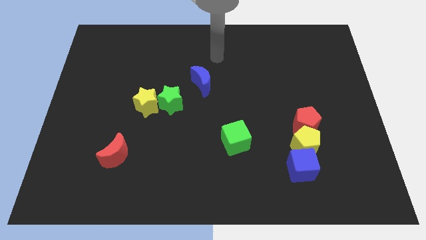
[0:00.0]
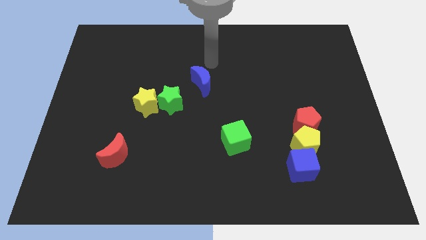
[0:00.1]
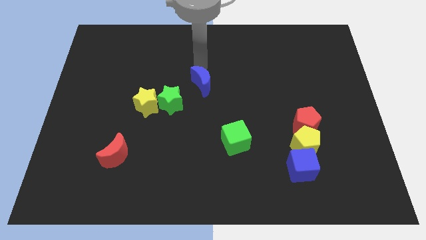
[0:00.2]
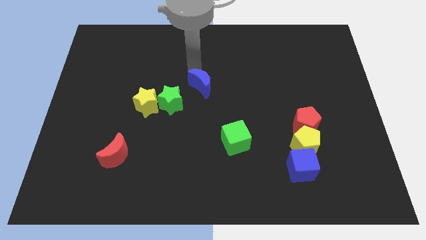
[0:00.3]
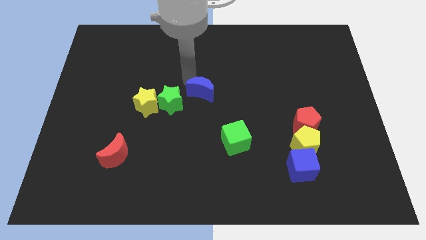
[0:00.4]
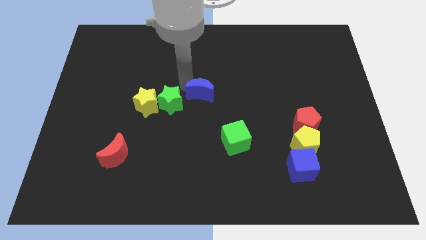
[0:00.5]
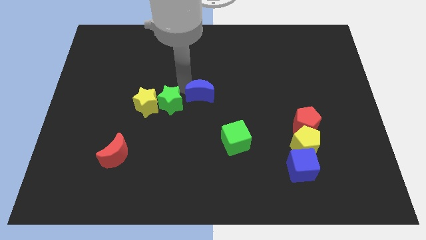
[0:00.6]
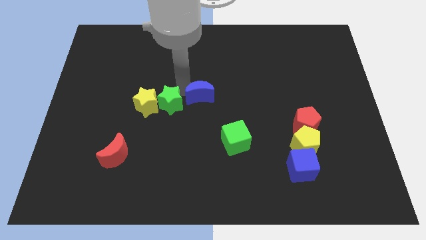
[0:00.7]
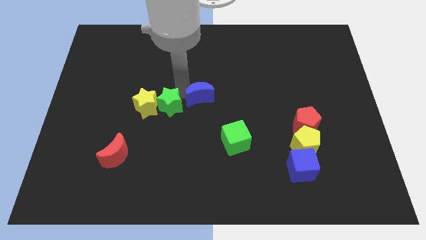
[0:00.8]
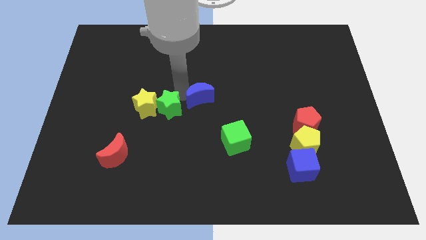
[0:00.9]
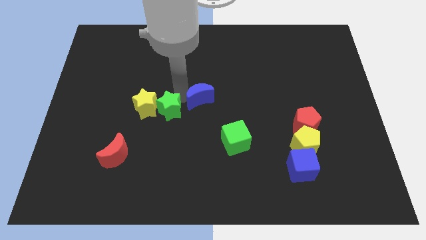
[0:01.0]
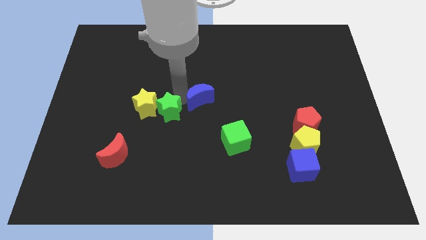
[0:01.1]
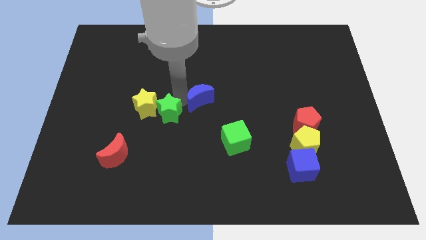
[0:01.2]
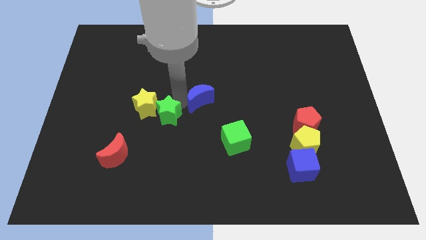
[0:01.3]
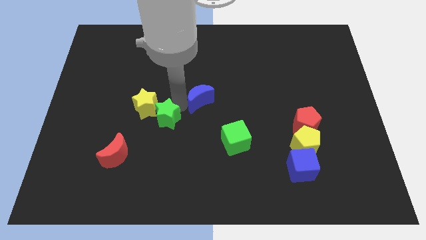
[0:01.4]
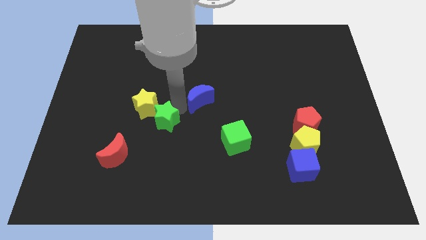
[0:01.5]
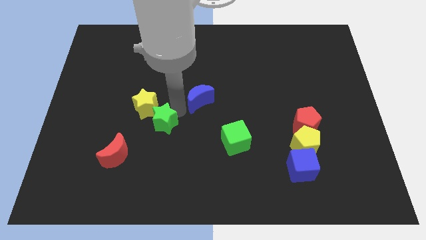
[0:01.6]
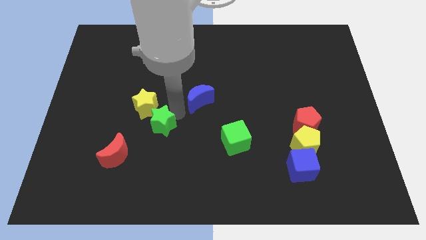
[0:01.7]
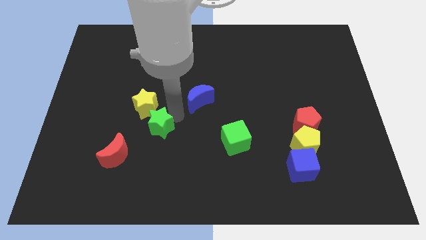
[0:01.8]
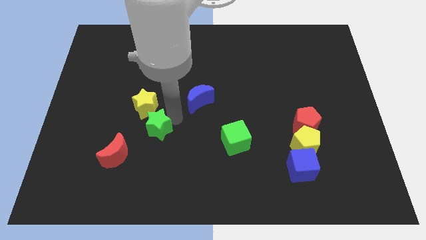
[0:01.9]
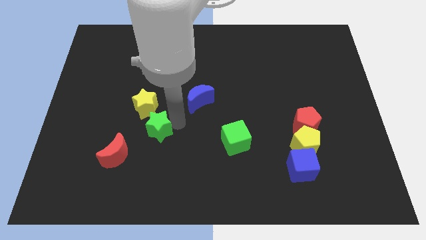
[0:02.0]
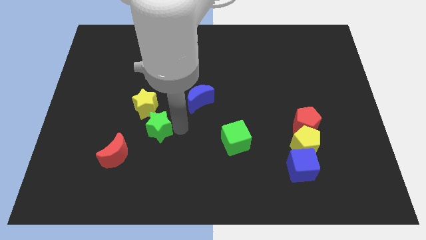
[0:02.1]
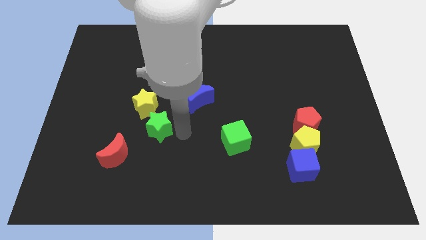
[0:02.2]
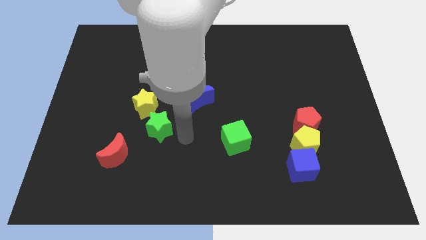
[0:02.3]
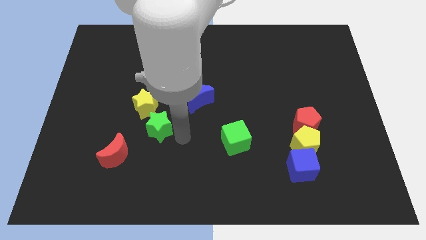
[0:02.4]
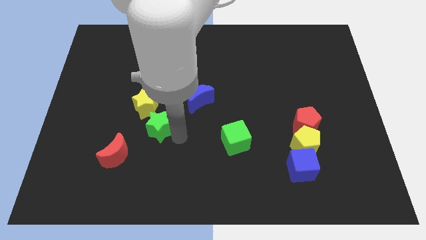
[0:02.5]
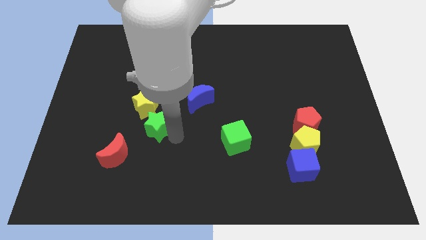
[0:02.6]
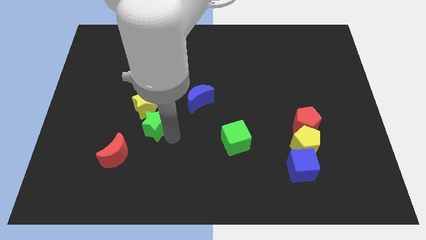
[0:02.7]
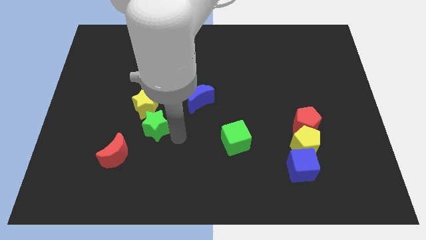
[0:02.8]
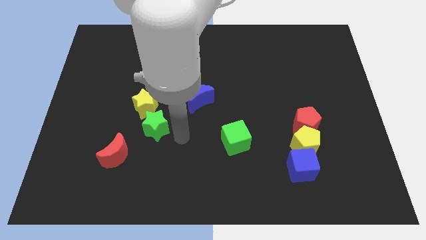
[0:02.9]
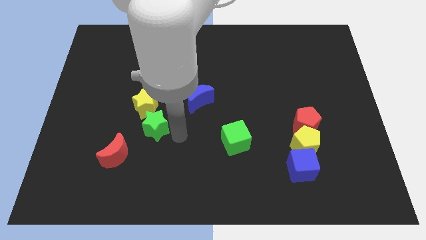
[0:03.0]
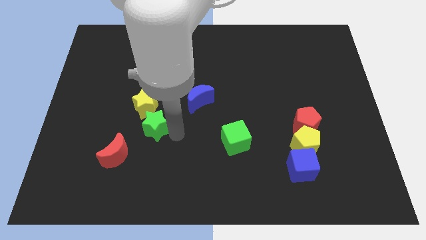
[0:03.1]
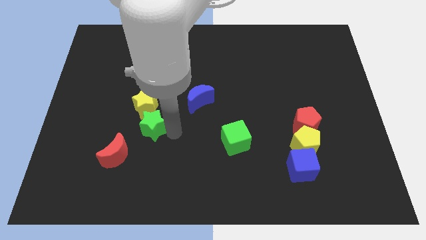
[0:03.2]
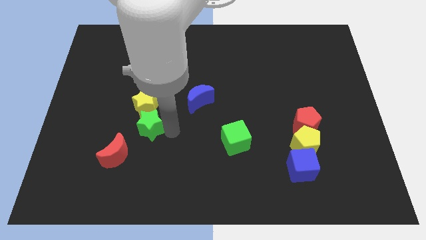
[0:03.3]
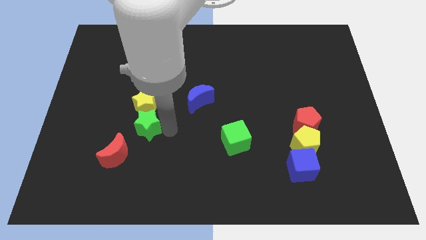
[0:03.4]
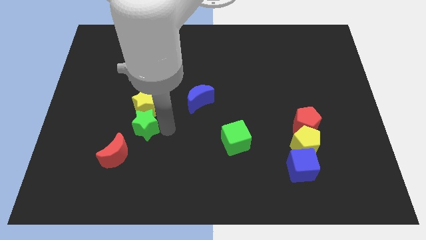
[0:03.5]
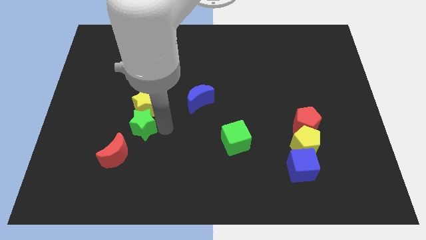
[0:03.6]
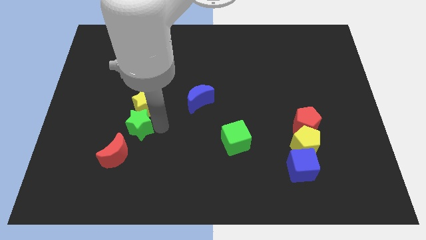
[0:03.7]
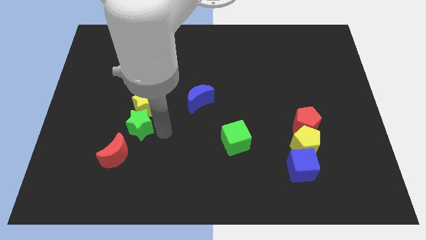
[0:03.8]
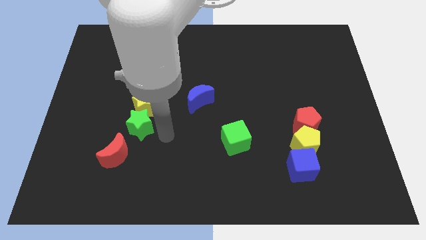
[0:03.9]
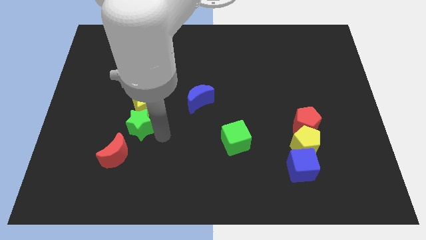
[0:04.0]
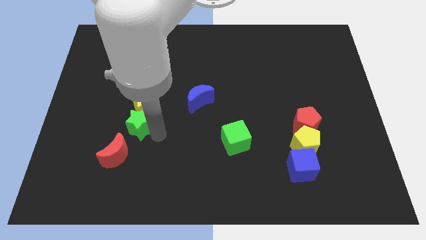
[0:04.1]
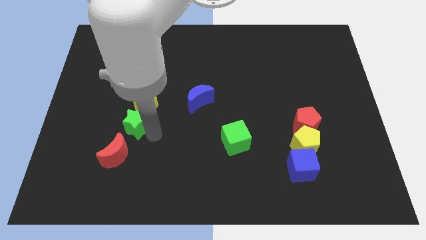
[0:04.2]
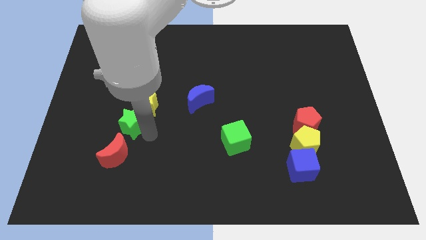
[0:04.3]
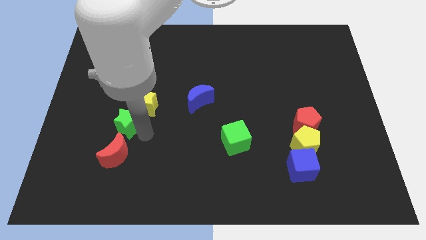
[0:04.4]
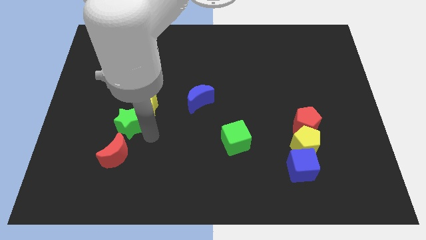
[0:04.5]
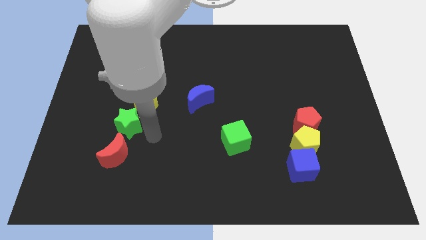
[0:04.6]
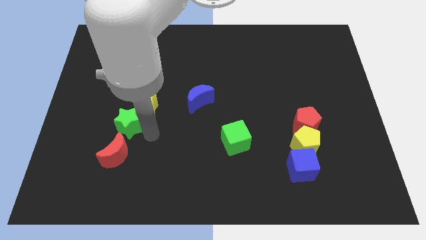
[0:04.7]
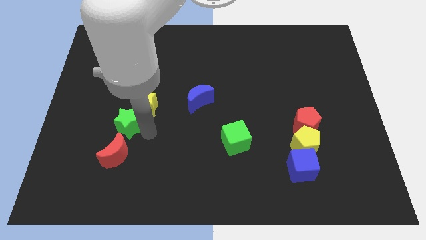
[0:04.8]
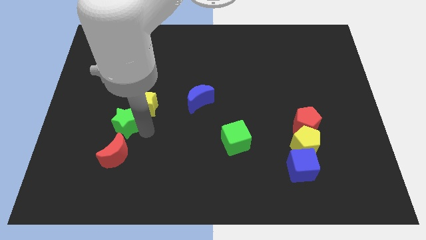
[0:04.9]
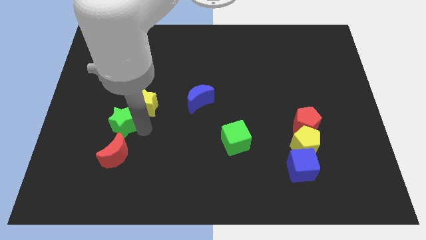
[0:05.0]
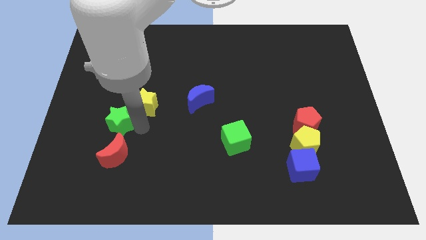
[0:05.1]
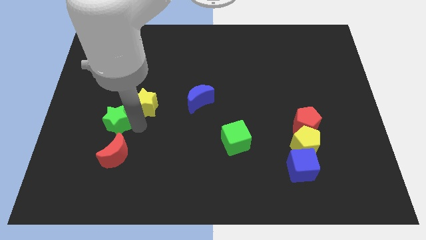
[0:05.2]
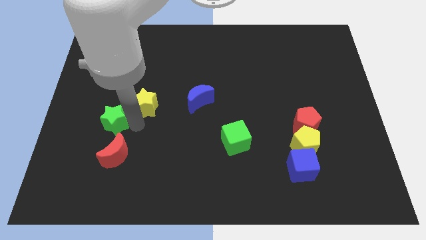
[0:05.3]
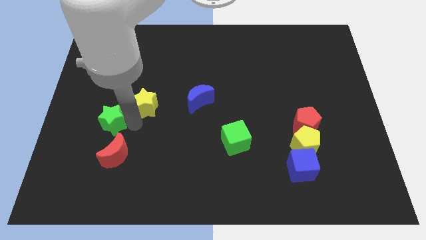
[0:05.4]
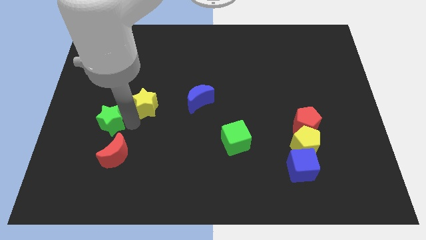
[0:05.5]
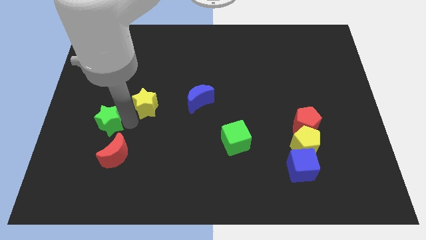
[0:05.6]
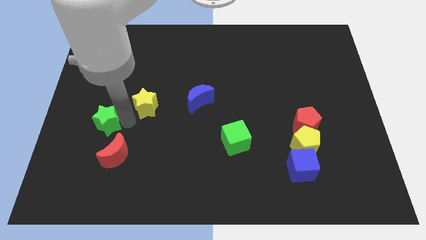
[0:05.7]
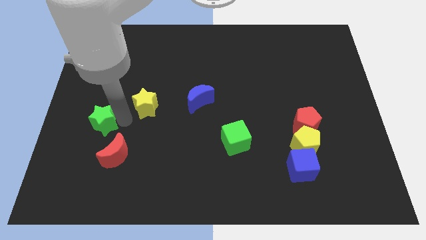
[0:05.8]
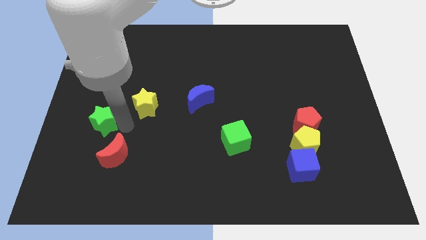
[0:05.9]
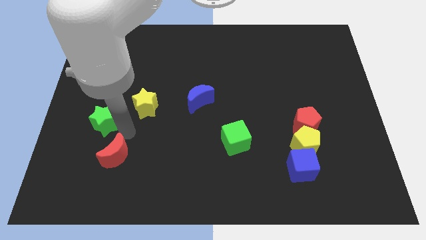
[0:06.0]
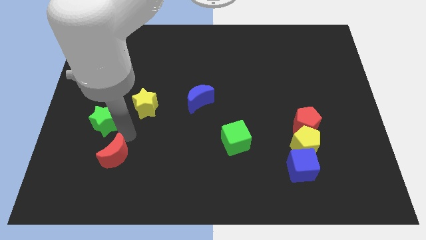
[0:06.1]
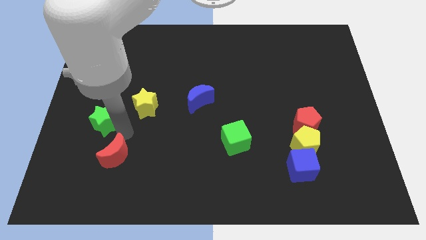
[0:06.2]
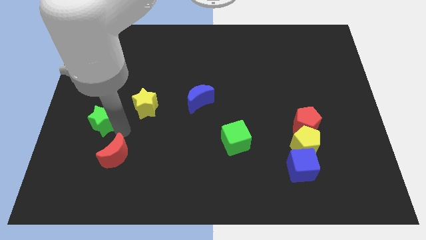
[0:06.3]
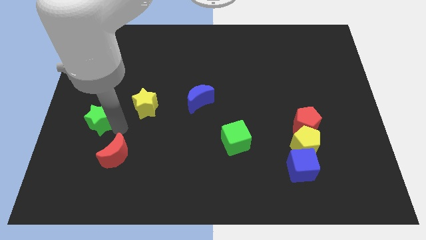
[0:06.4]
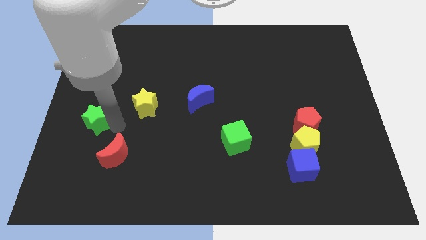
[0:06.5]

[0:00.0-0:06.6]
move the green star to the left side of the board

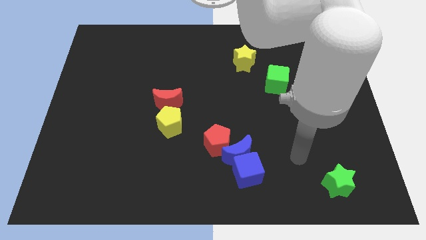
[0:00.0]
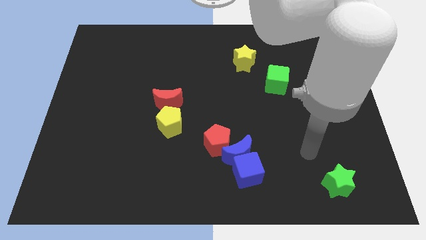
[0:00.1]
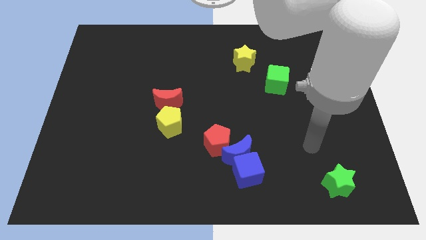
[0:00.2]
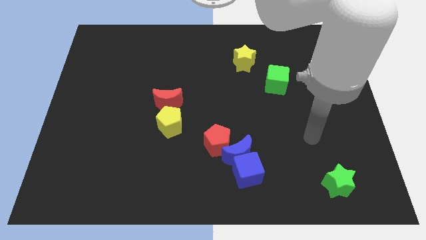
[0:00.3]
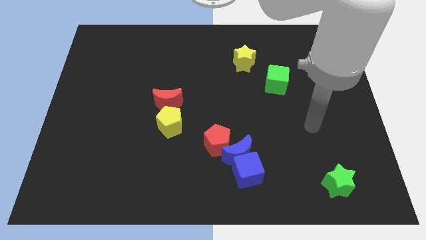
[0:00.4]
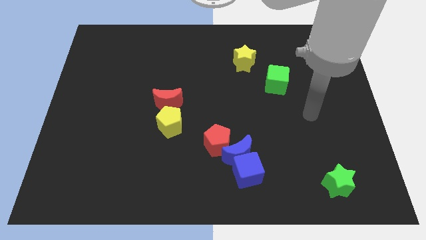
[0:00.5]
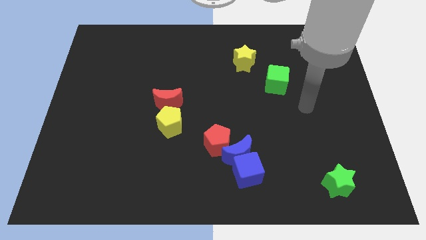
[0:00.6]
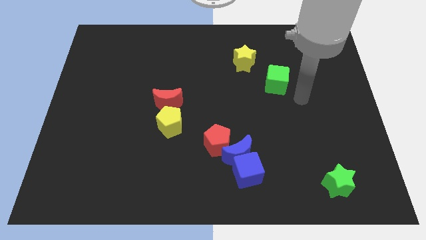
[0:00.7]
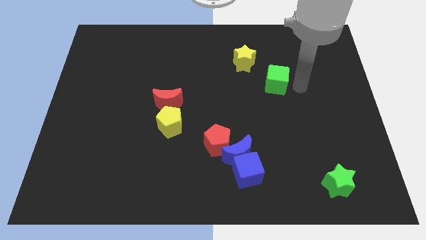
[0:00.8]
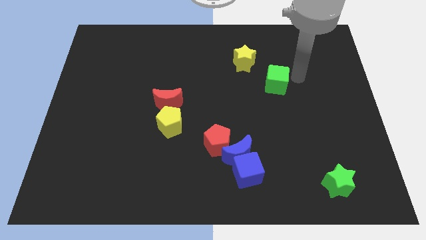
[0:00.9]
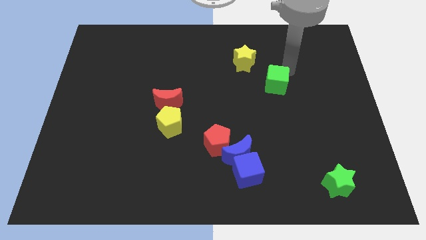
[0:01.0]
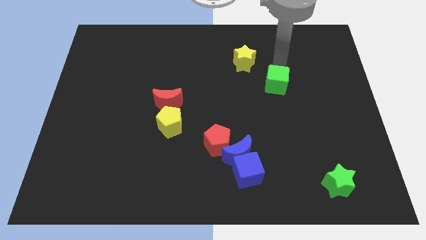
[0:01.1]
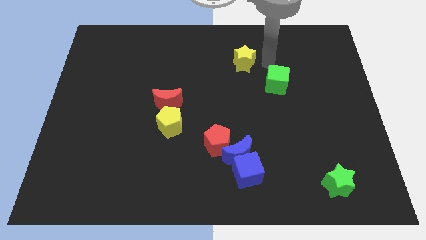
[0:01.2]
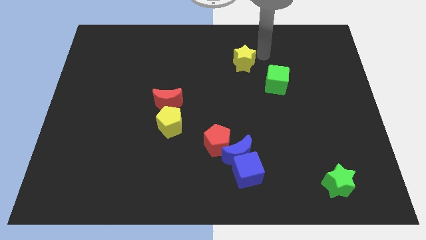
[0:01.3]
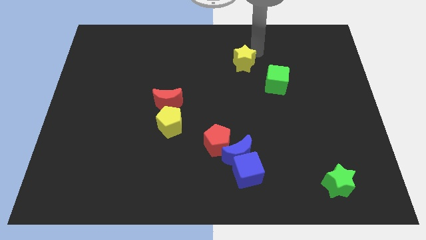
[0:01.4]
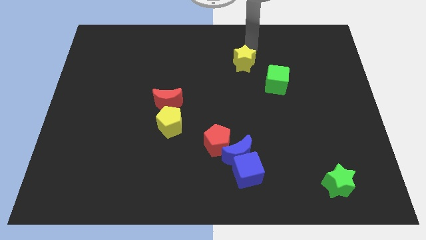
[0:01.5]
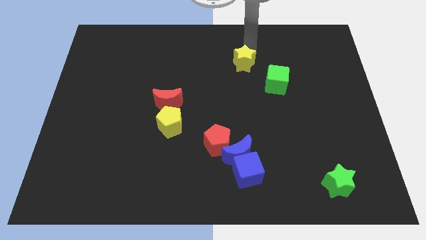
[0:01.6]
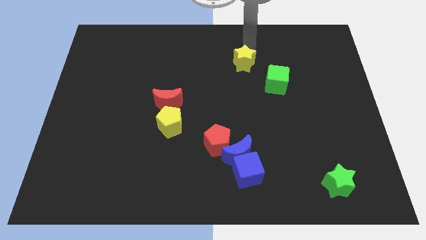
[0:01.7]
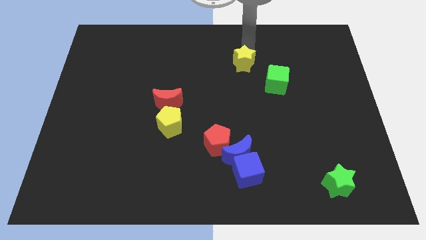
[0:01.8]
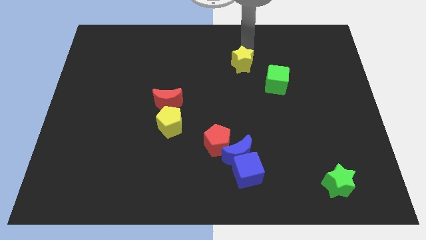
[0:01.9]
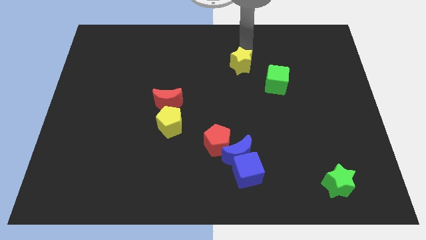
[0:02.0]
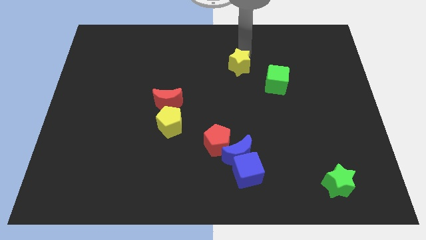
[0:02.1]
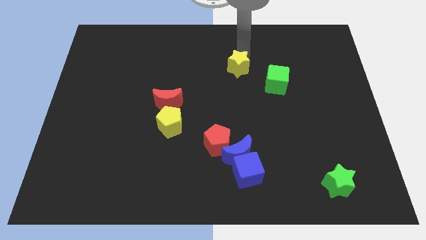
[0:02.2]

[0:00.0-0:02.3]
slide the yellow star to the middle
